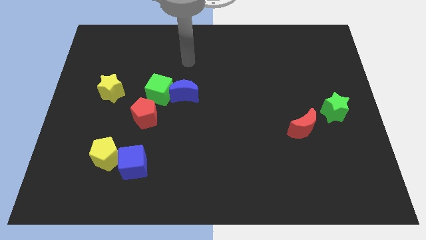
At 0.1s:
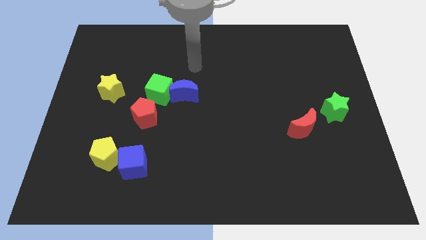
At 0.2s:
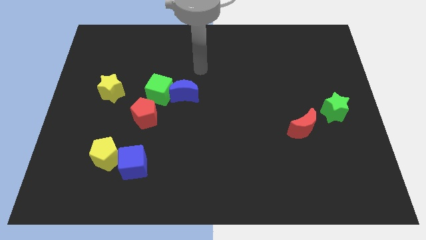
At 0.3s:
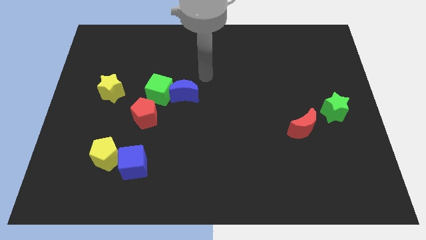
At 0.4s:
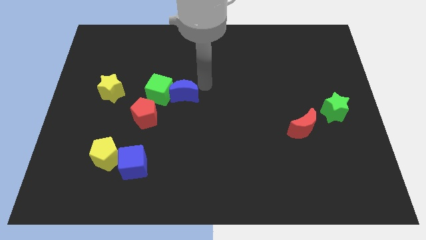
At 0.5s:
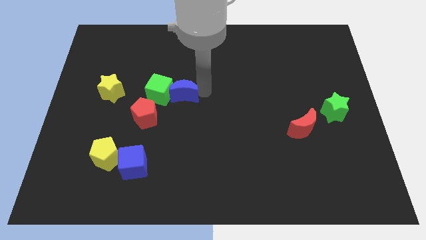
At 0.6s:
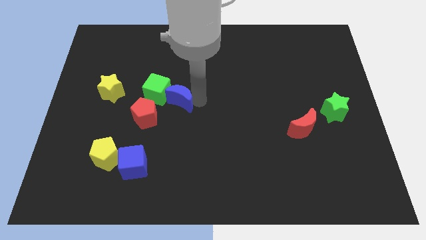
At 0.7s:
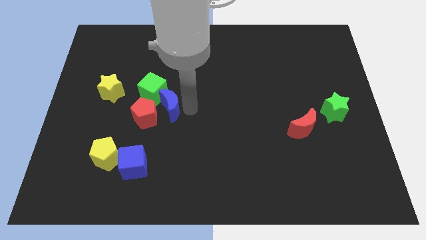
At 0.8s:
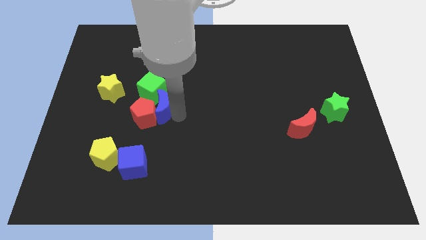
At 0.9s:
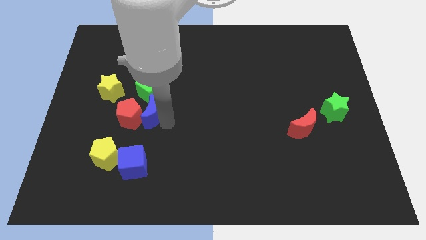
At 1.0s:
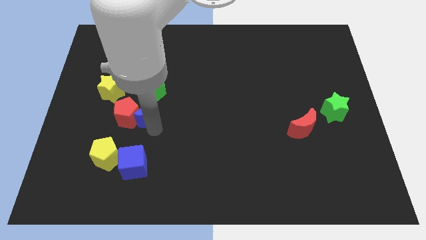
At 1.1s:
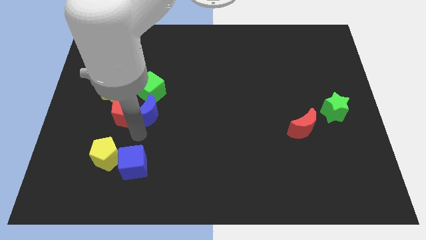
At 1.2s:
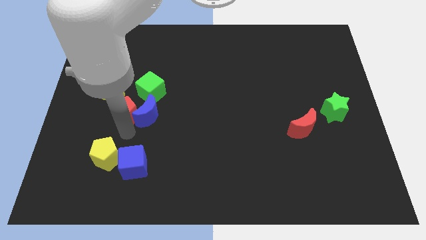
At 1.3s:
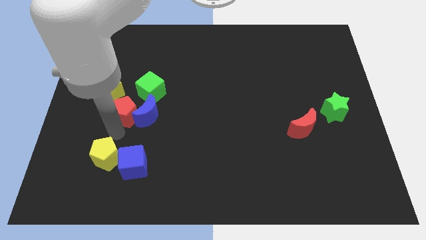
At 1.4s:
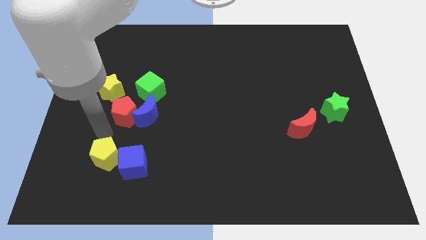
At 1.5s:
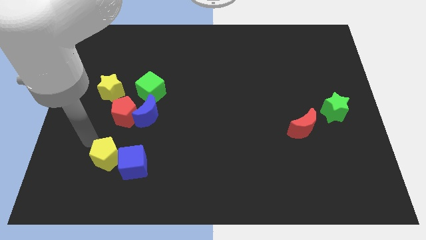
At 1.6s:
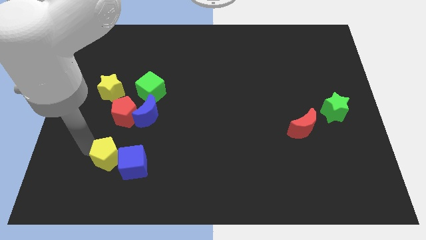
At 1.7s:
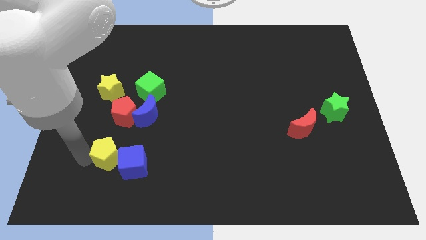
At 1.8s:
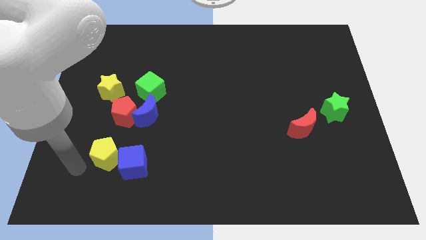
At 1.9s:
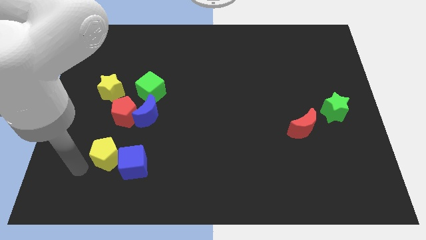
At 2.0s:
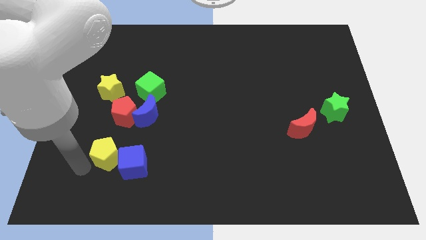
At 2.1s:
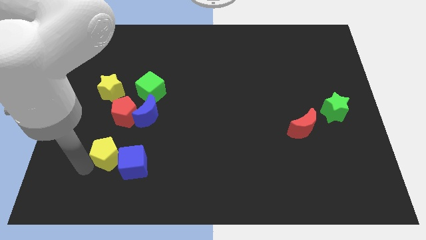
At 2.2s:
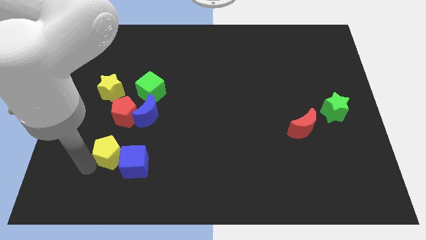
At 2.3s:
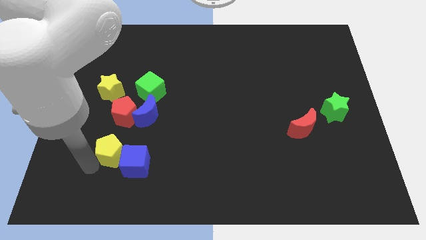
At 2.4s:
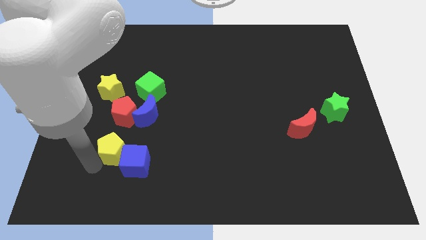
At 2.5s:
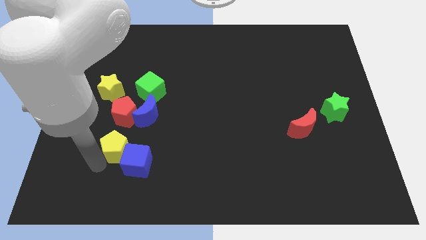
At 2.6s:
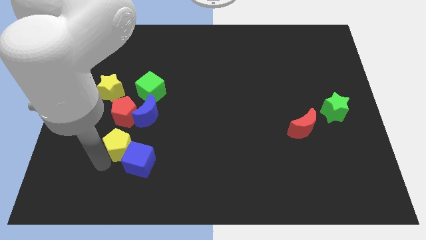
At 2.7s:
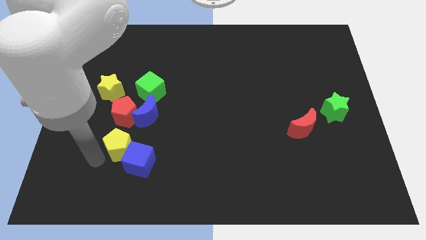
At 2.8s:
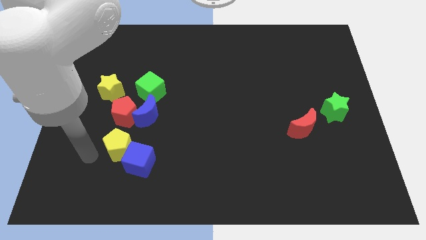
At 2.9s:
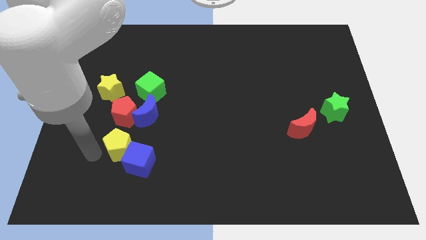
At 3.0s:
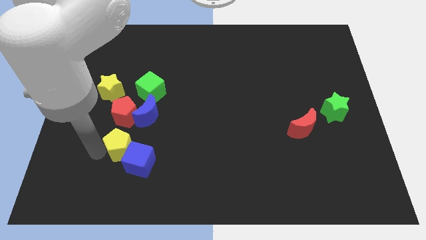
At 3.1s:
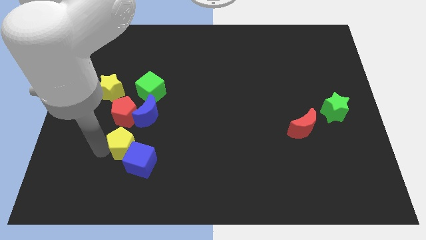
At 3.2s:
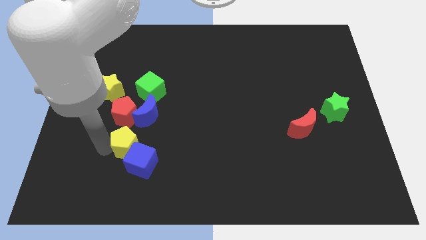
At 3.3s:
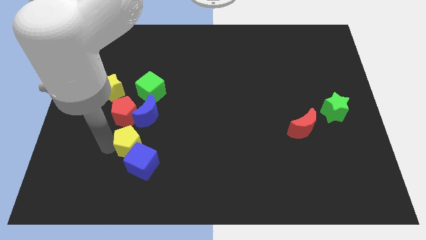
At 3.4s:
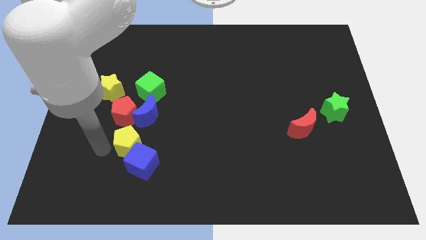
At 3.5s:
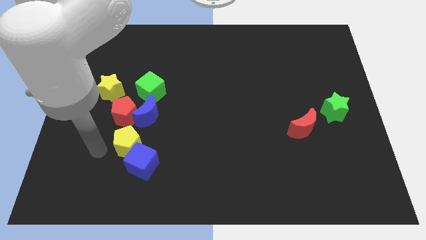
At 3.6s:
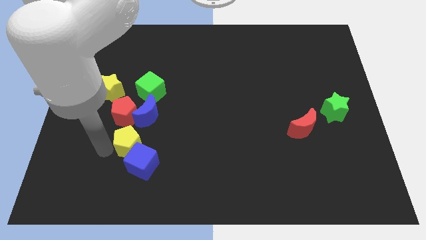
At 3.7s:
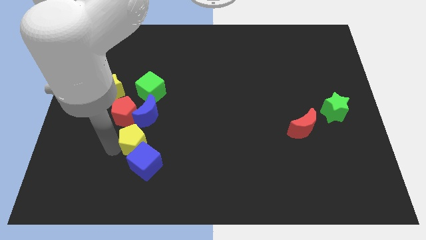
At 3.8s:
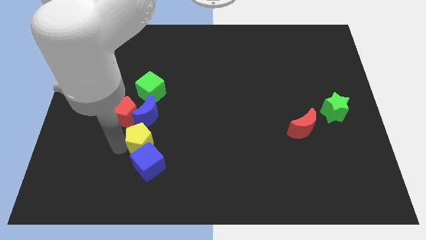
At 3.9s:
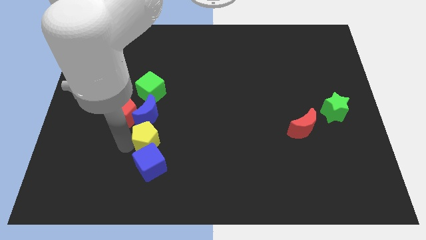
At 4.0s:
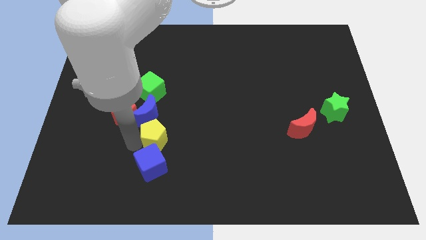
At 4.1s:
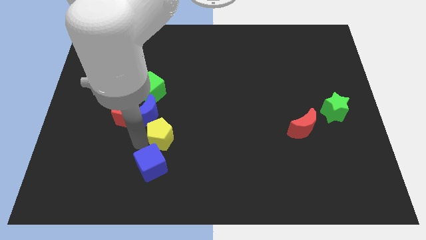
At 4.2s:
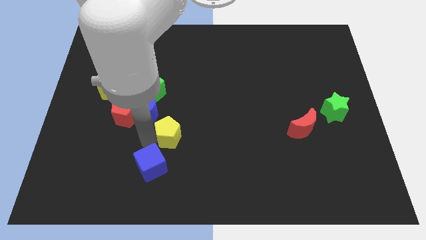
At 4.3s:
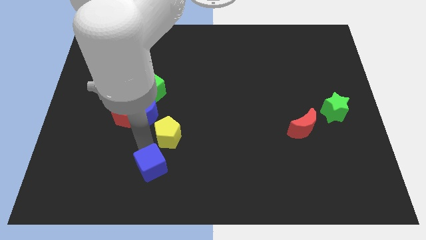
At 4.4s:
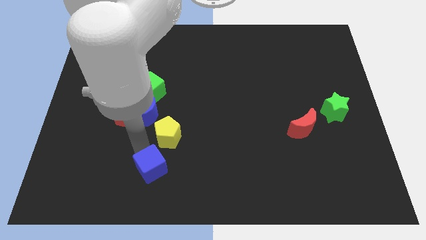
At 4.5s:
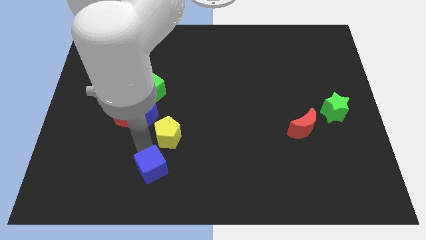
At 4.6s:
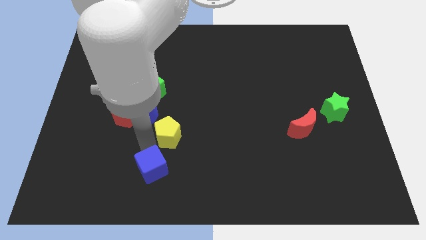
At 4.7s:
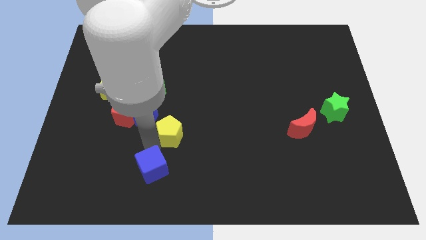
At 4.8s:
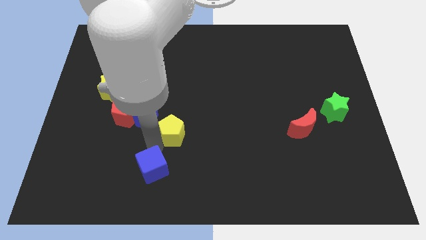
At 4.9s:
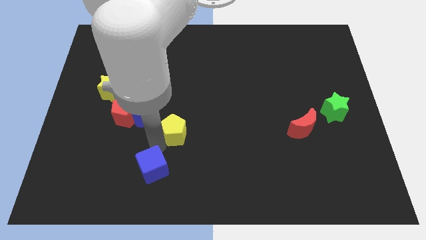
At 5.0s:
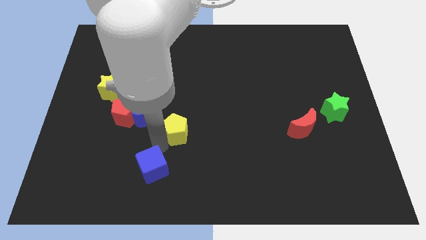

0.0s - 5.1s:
move the yellow pentagon to the middle

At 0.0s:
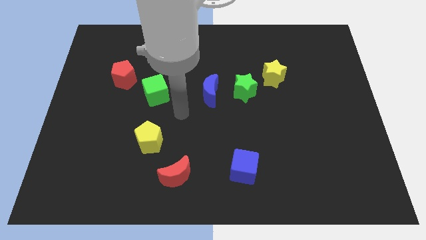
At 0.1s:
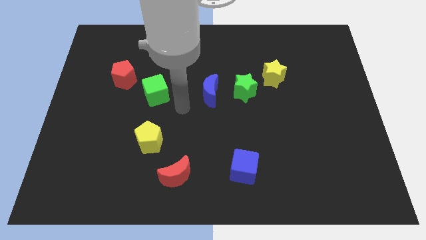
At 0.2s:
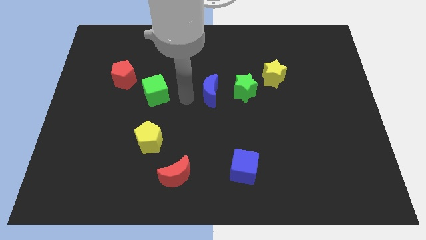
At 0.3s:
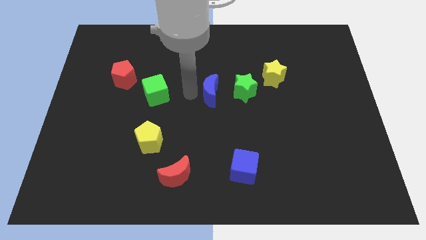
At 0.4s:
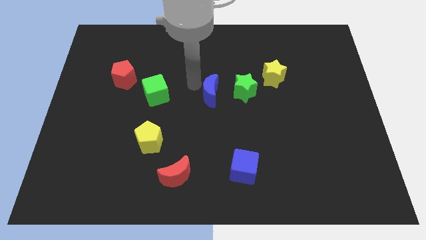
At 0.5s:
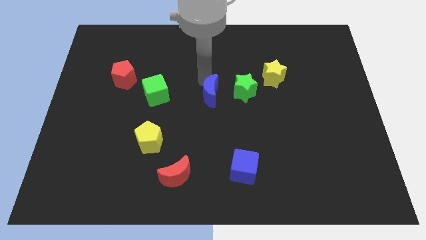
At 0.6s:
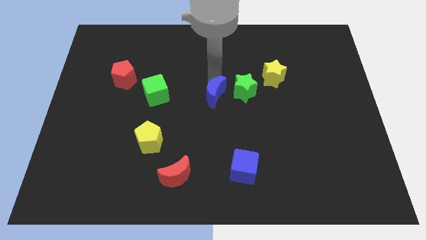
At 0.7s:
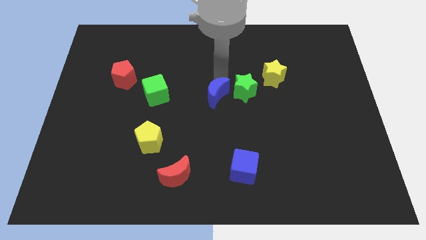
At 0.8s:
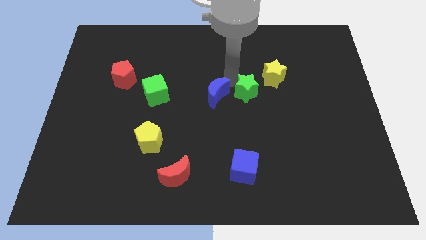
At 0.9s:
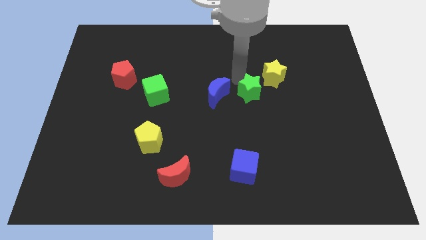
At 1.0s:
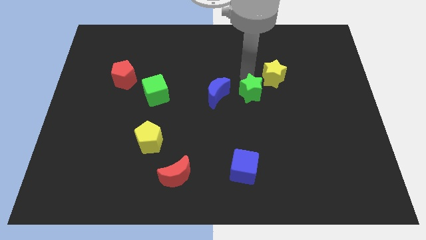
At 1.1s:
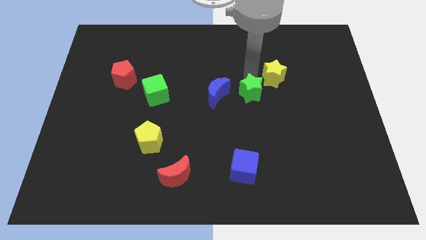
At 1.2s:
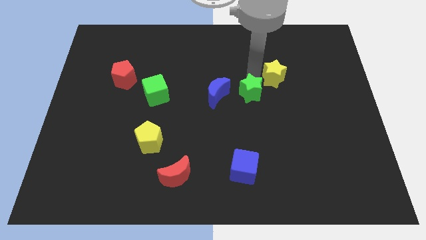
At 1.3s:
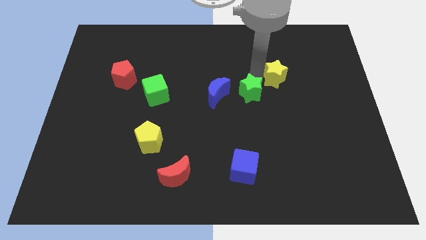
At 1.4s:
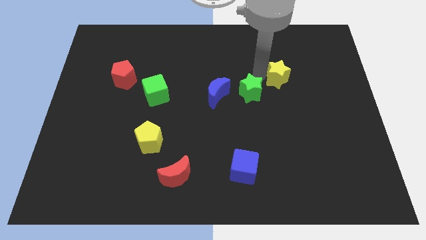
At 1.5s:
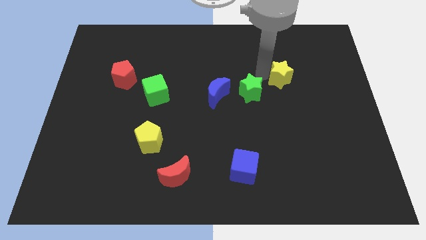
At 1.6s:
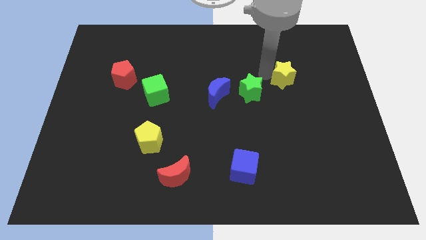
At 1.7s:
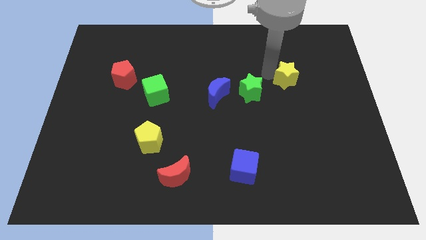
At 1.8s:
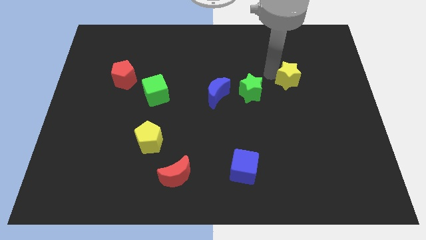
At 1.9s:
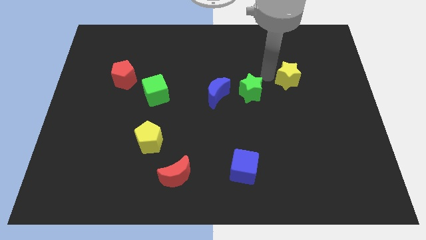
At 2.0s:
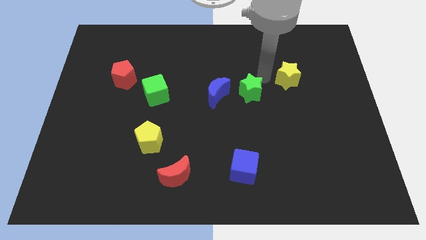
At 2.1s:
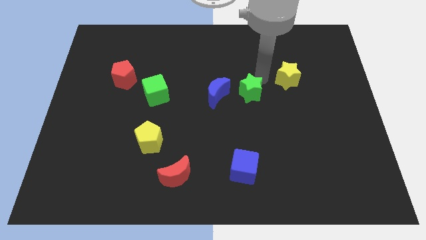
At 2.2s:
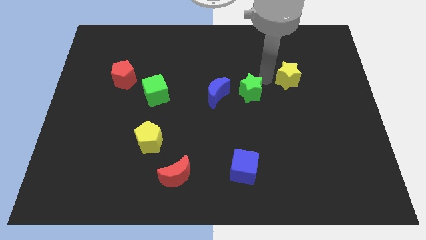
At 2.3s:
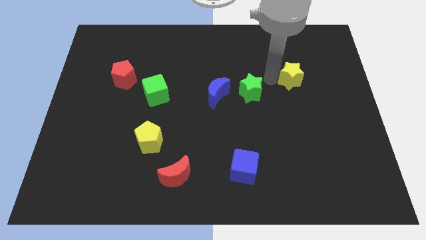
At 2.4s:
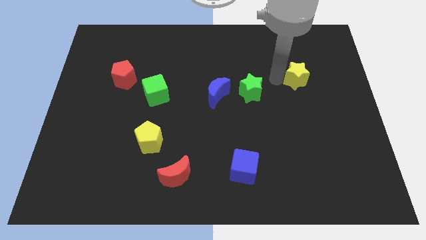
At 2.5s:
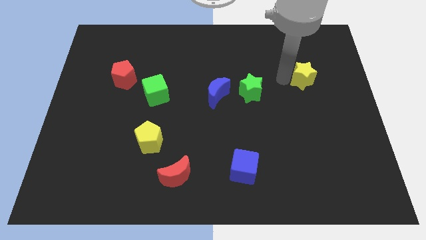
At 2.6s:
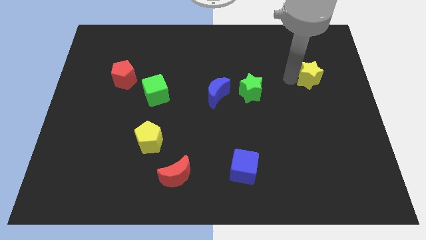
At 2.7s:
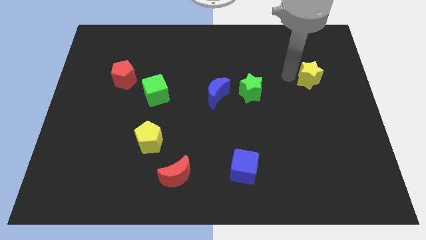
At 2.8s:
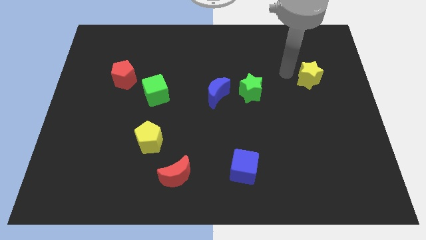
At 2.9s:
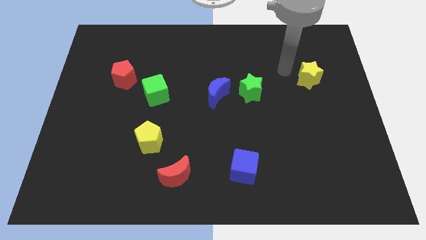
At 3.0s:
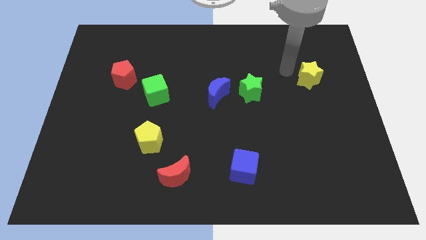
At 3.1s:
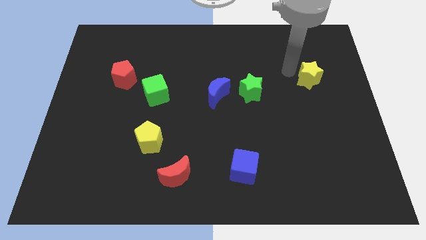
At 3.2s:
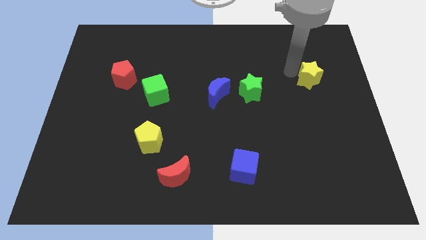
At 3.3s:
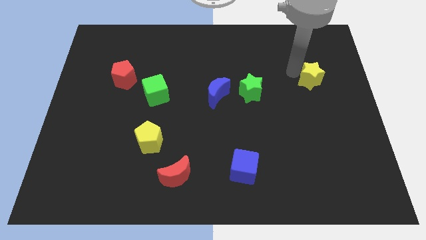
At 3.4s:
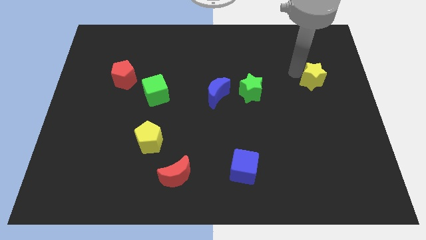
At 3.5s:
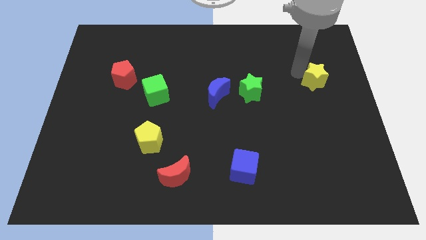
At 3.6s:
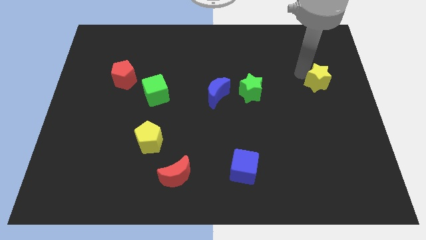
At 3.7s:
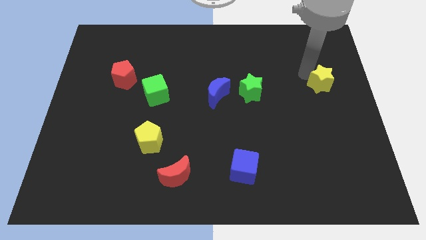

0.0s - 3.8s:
put the yellow star to the center right
